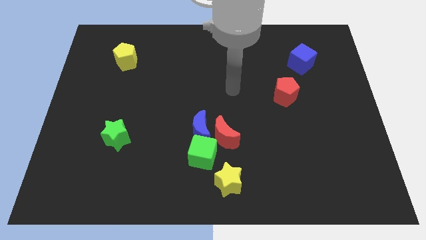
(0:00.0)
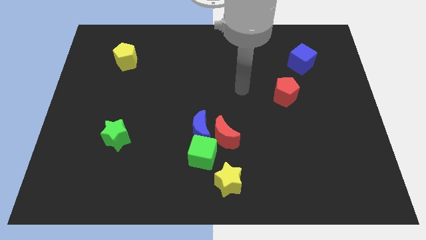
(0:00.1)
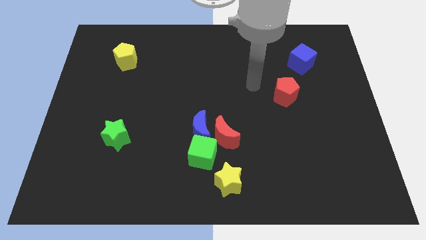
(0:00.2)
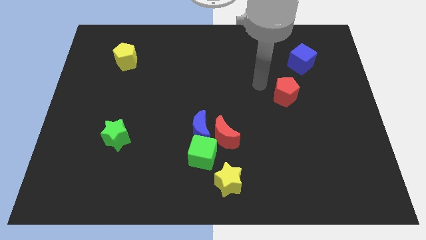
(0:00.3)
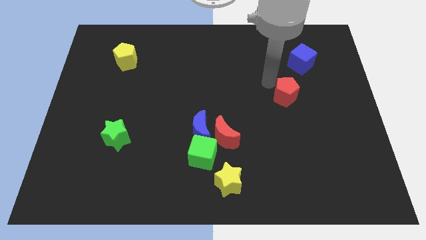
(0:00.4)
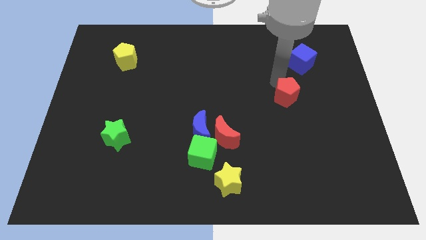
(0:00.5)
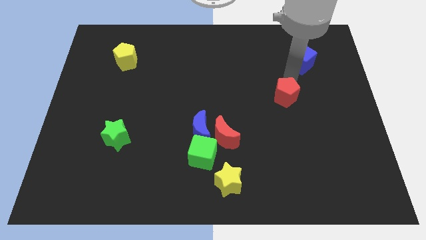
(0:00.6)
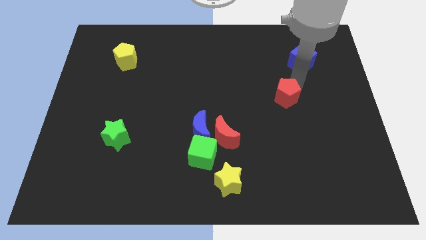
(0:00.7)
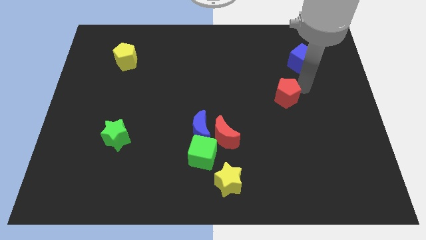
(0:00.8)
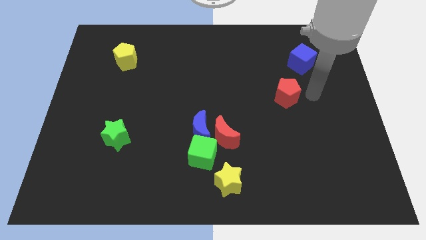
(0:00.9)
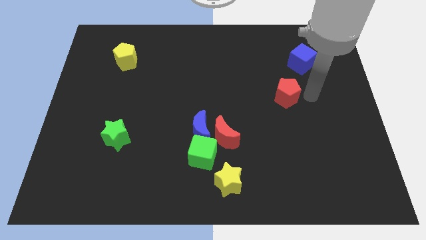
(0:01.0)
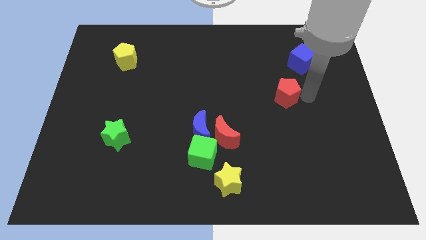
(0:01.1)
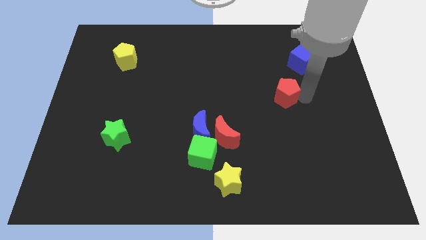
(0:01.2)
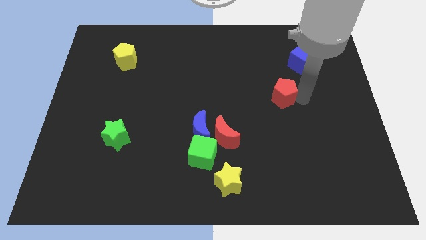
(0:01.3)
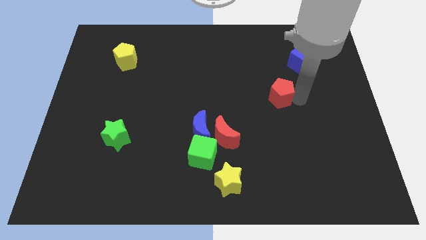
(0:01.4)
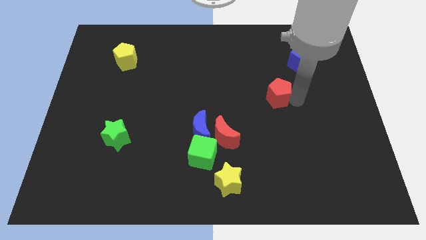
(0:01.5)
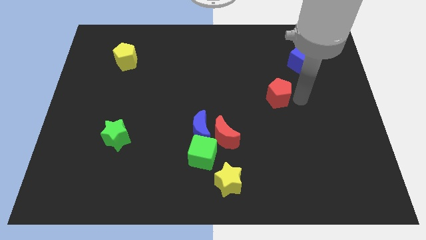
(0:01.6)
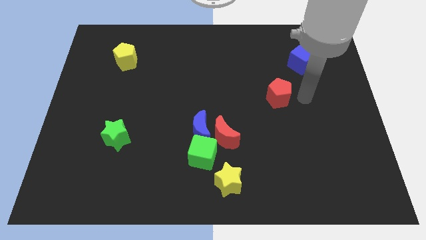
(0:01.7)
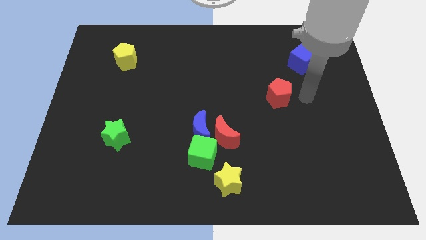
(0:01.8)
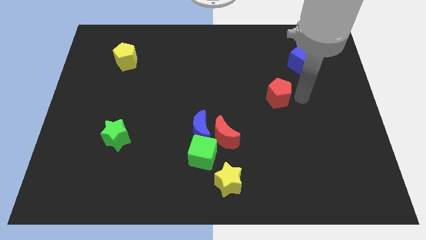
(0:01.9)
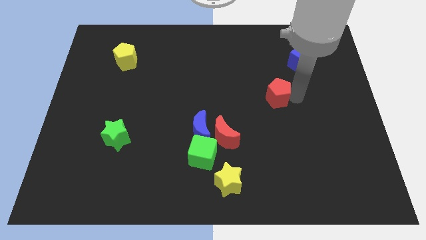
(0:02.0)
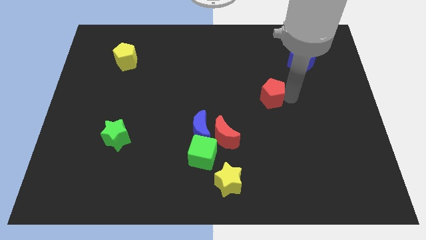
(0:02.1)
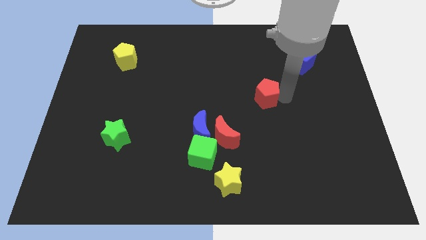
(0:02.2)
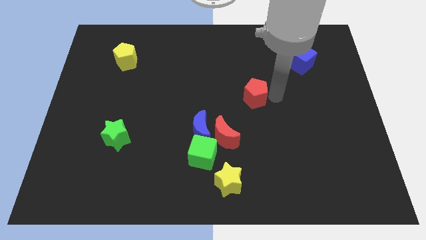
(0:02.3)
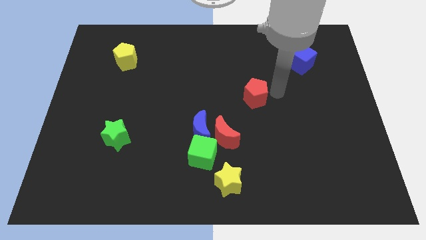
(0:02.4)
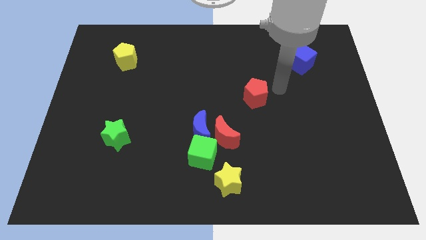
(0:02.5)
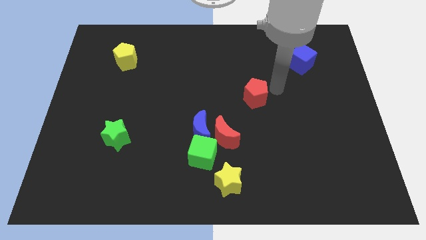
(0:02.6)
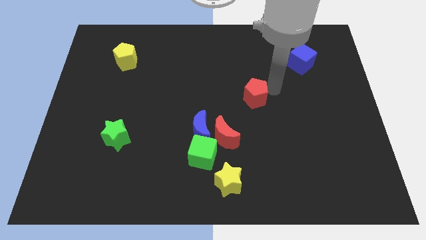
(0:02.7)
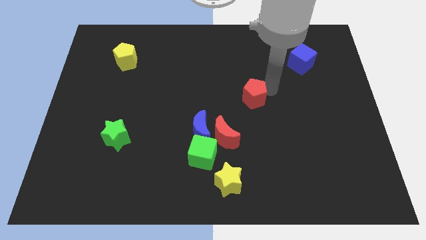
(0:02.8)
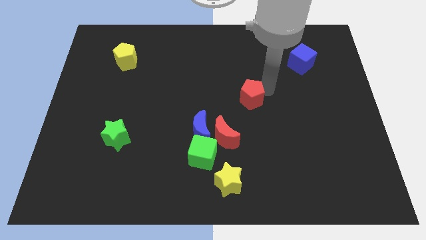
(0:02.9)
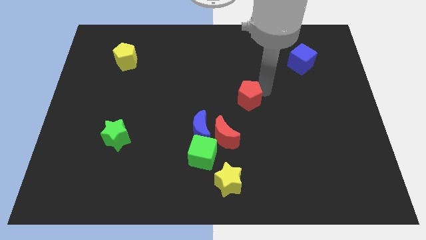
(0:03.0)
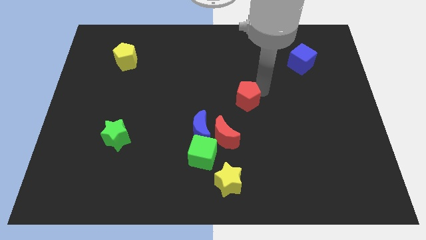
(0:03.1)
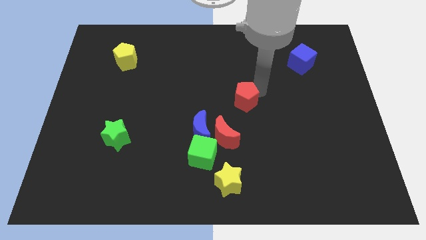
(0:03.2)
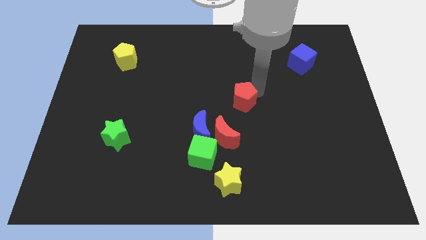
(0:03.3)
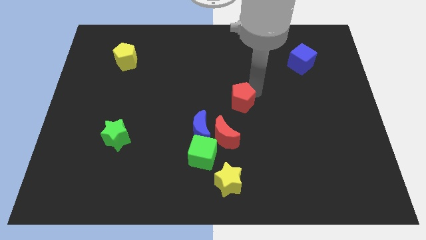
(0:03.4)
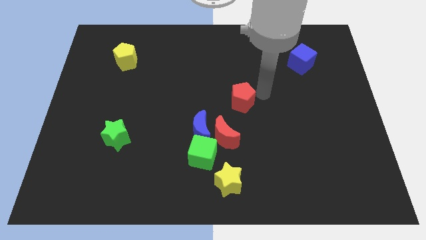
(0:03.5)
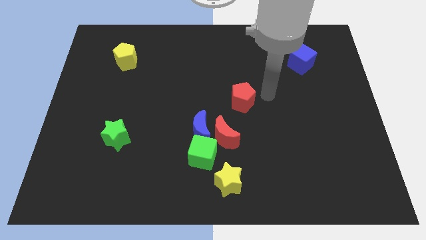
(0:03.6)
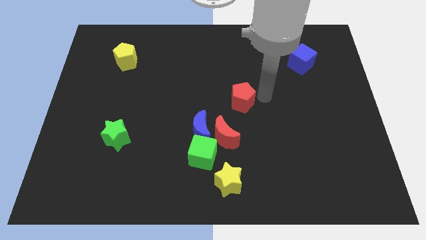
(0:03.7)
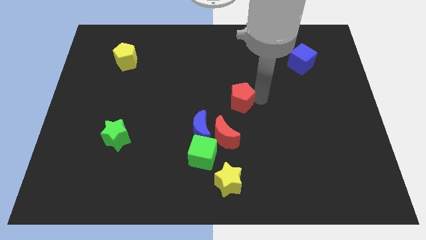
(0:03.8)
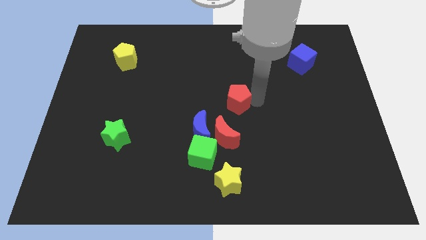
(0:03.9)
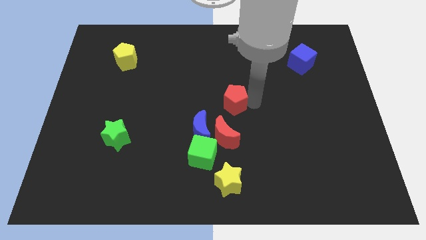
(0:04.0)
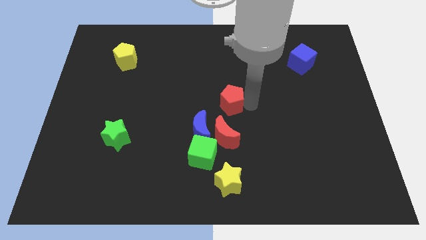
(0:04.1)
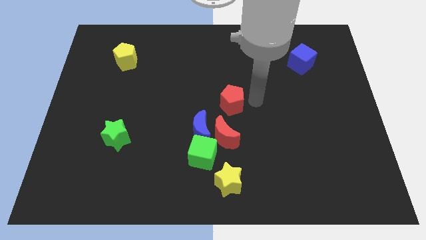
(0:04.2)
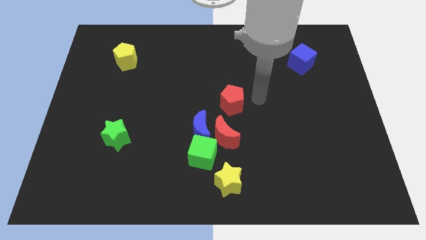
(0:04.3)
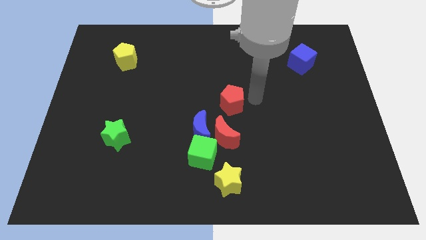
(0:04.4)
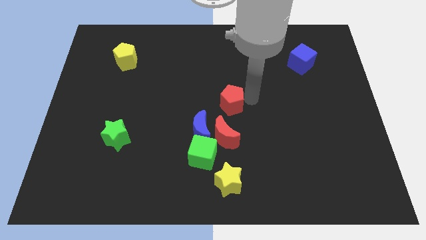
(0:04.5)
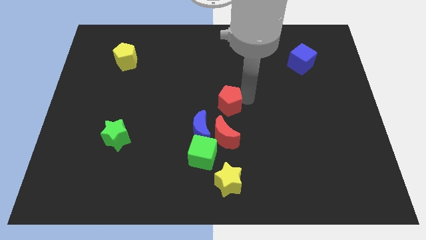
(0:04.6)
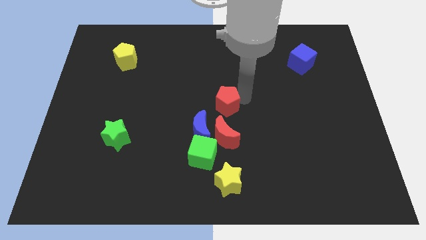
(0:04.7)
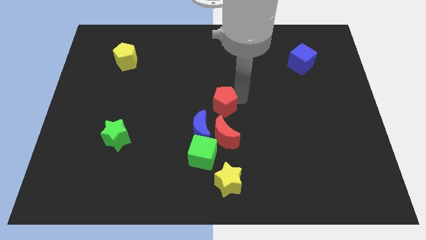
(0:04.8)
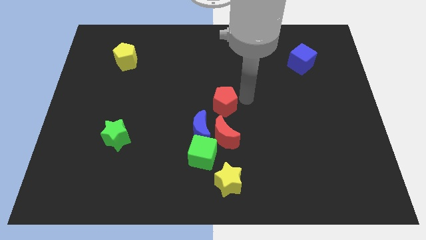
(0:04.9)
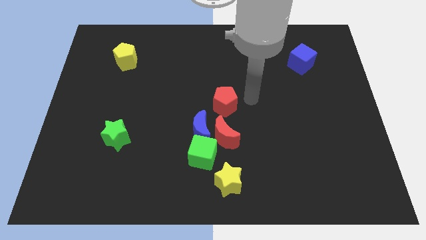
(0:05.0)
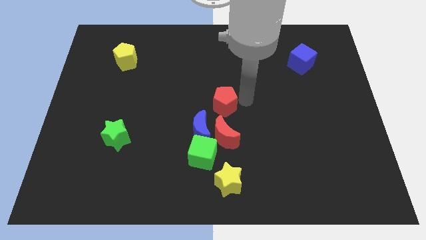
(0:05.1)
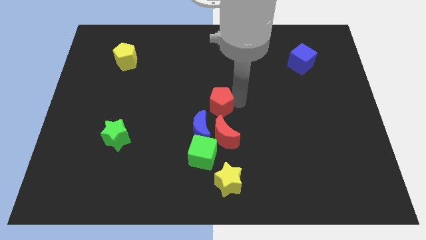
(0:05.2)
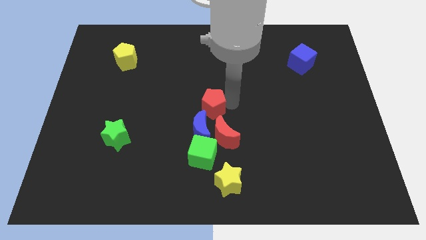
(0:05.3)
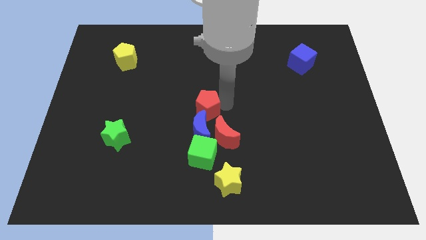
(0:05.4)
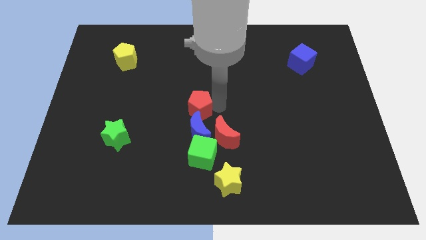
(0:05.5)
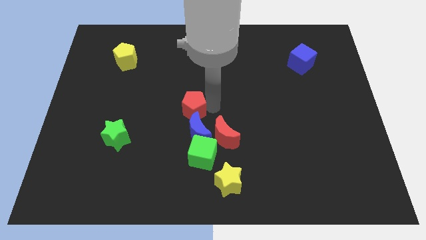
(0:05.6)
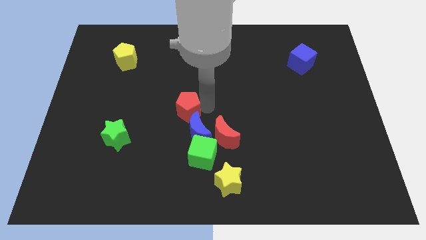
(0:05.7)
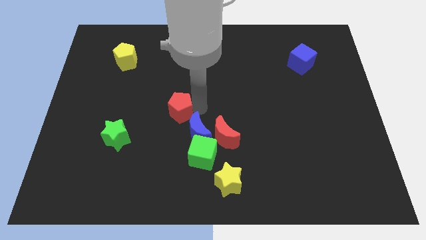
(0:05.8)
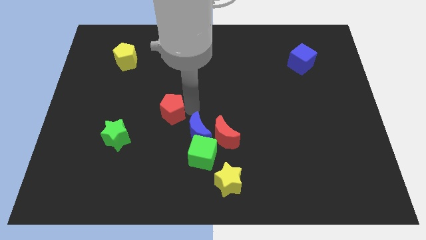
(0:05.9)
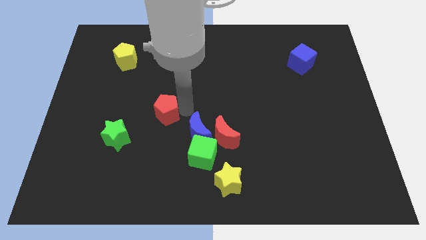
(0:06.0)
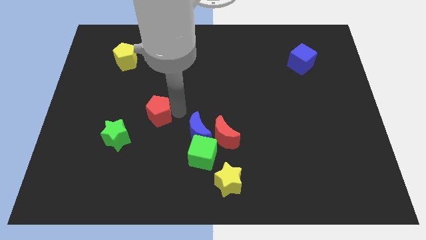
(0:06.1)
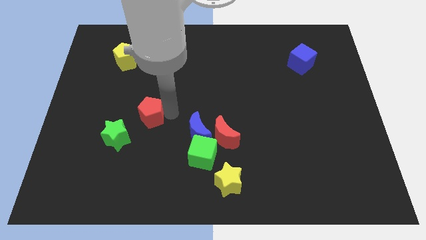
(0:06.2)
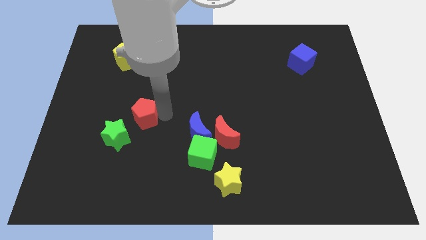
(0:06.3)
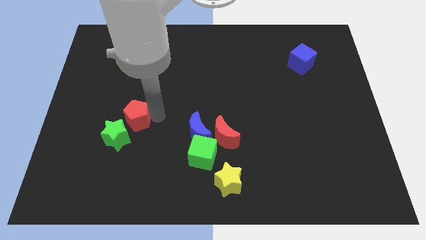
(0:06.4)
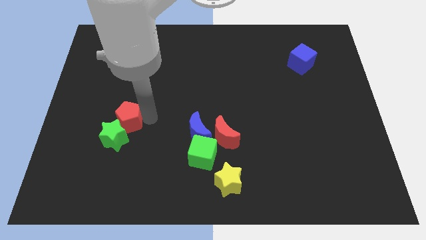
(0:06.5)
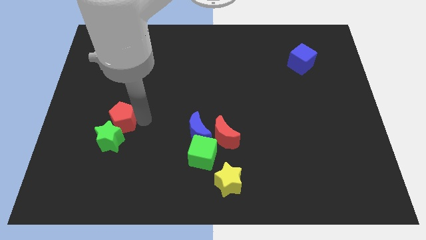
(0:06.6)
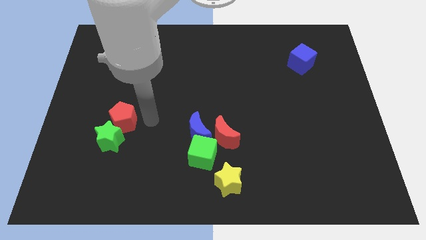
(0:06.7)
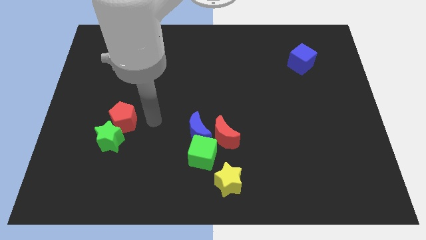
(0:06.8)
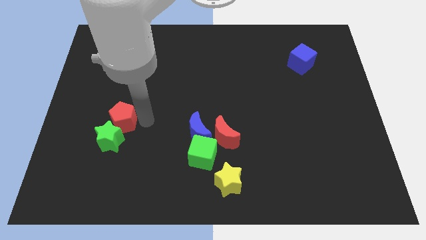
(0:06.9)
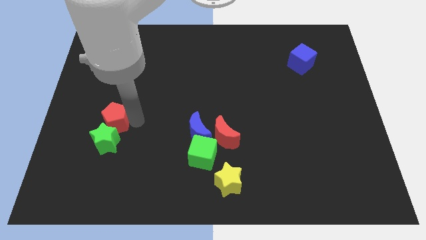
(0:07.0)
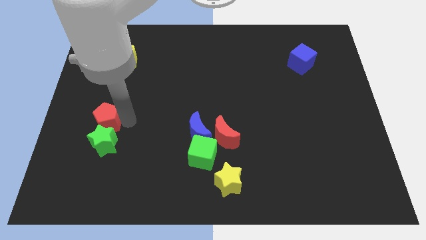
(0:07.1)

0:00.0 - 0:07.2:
move the red pentagon to the top left of the green star

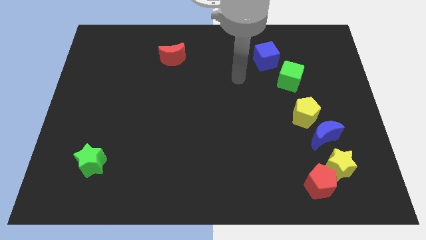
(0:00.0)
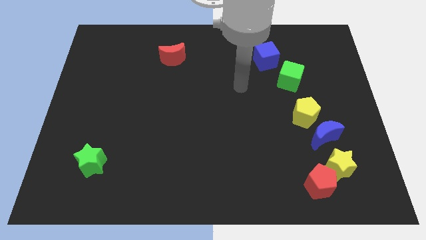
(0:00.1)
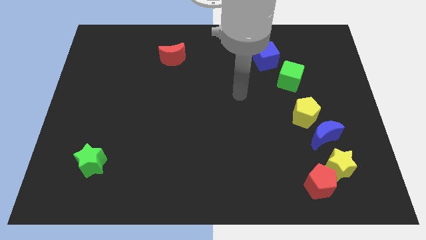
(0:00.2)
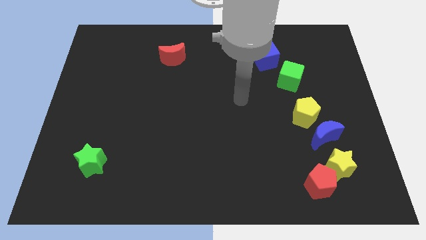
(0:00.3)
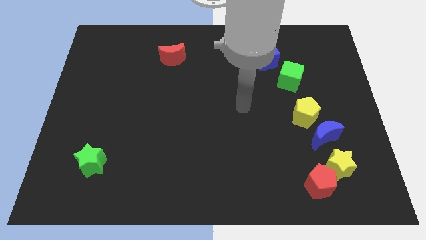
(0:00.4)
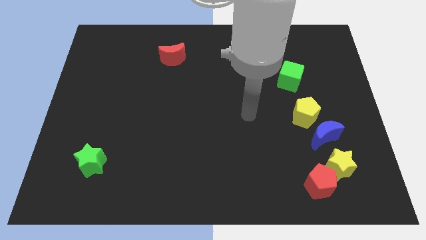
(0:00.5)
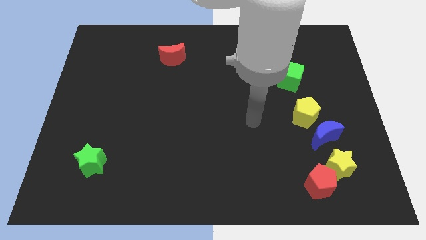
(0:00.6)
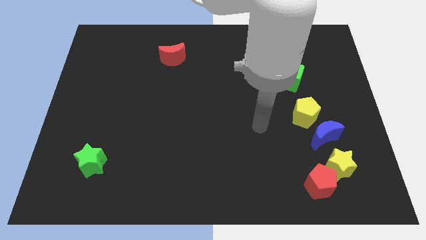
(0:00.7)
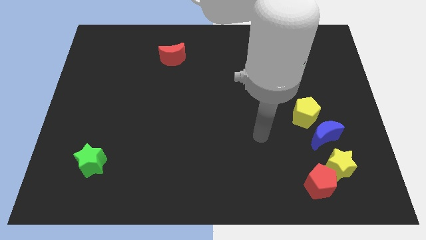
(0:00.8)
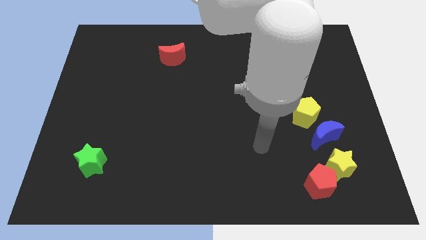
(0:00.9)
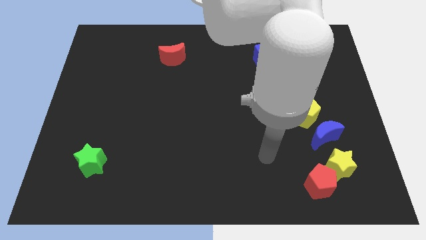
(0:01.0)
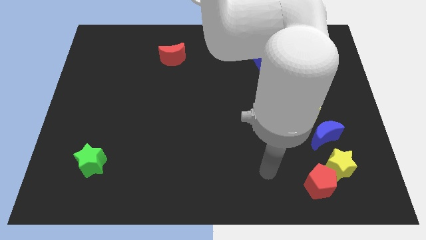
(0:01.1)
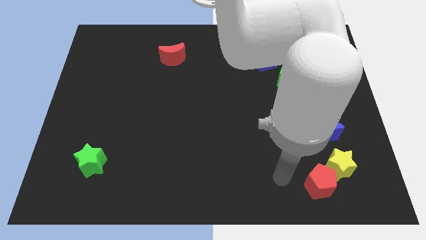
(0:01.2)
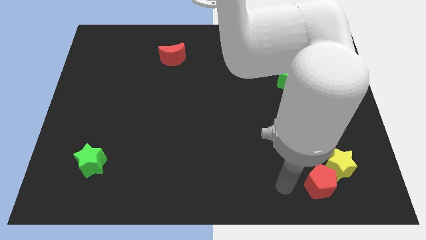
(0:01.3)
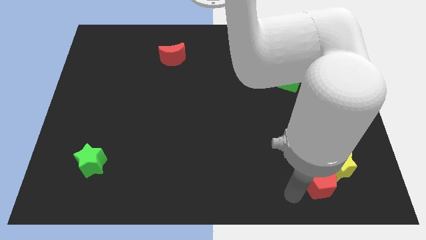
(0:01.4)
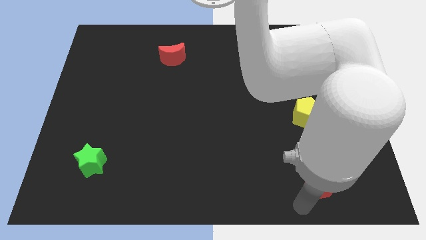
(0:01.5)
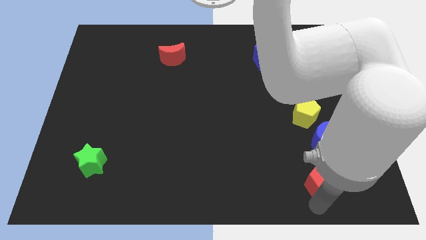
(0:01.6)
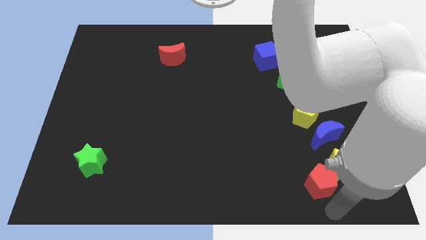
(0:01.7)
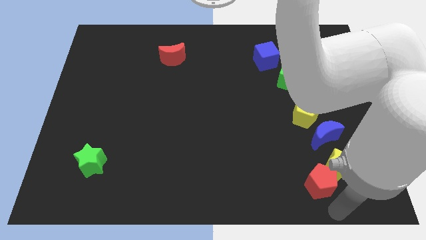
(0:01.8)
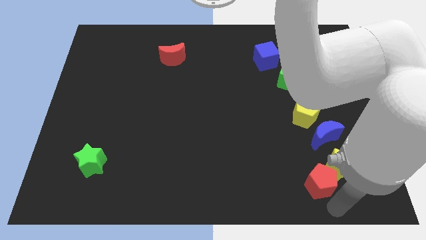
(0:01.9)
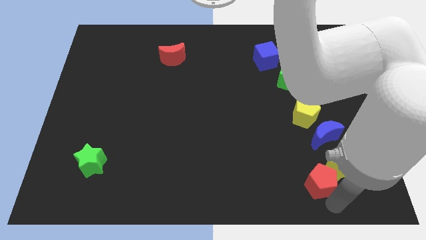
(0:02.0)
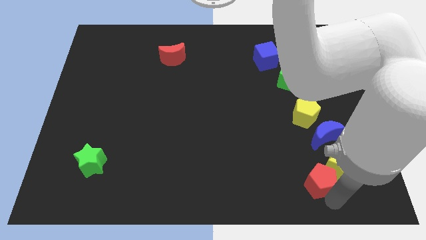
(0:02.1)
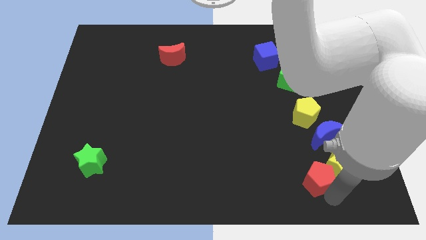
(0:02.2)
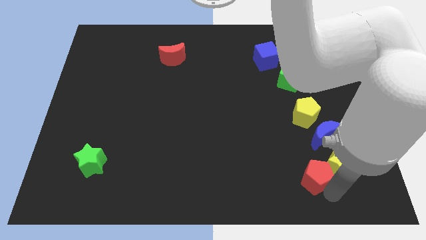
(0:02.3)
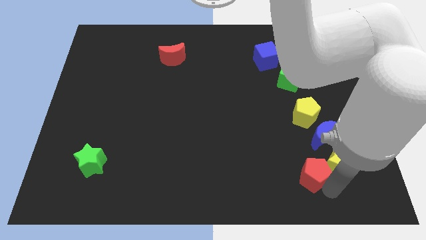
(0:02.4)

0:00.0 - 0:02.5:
move the red pentagon to the bottom left of the blue moon
